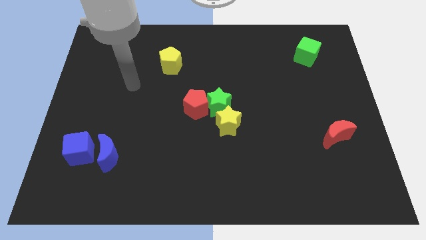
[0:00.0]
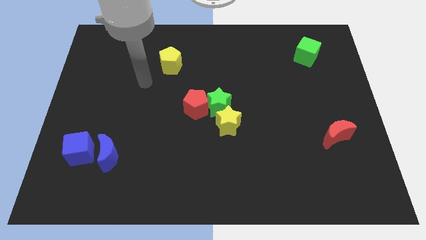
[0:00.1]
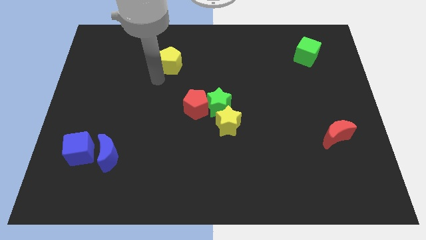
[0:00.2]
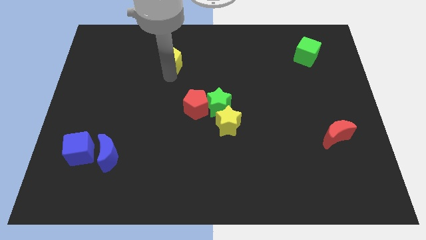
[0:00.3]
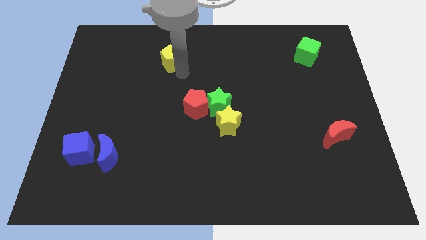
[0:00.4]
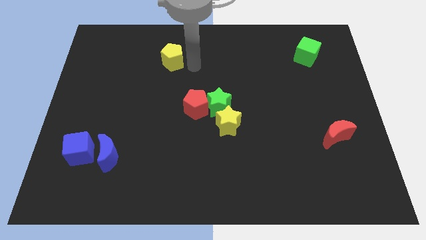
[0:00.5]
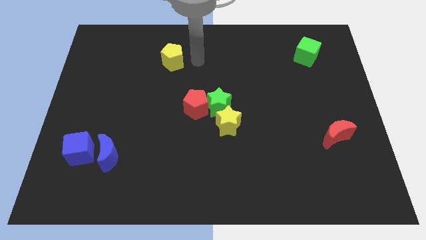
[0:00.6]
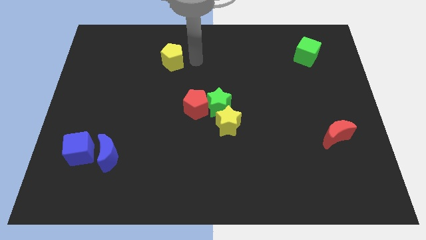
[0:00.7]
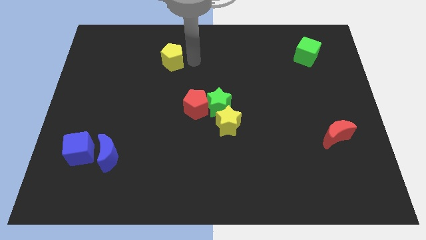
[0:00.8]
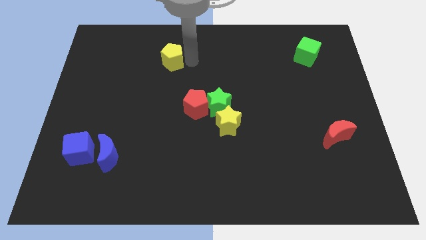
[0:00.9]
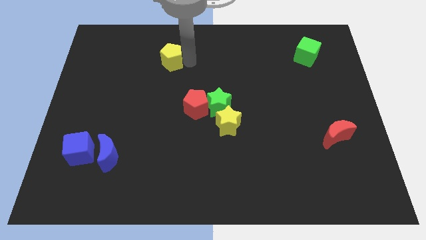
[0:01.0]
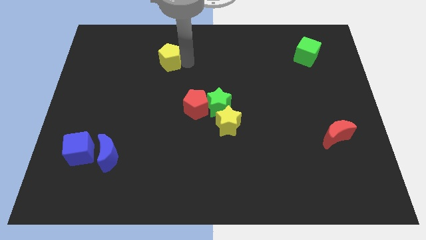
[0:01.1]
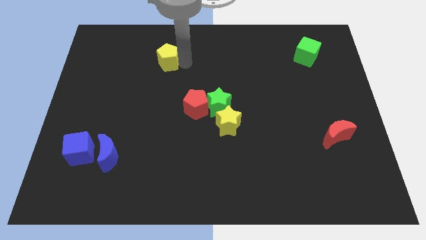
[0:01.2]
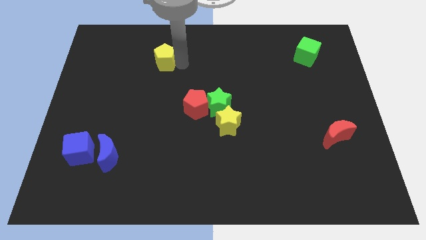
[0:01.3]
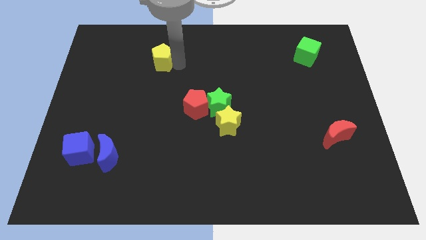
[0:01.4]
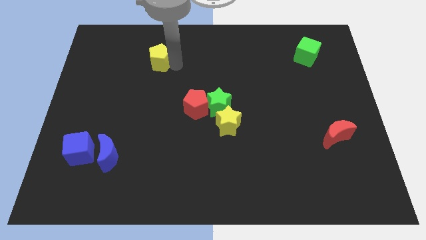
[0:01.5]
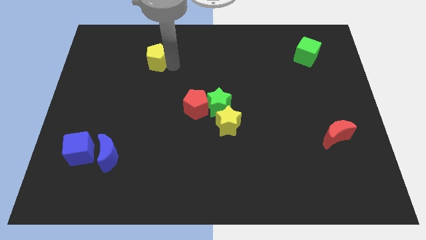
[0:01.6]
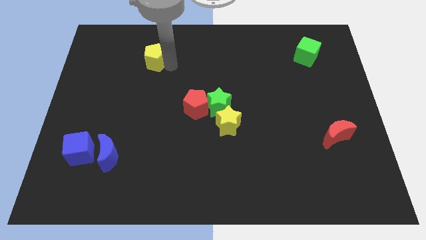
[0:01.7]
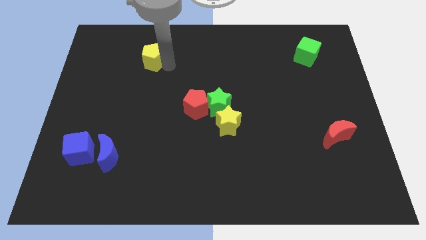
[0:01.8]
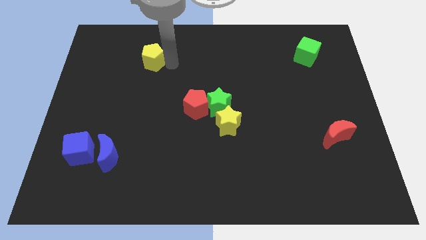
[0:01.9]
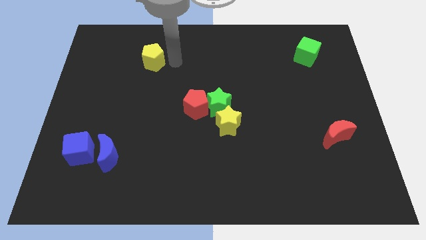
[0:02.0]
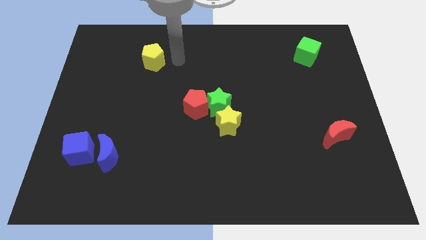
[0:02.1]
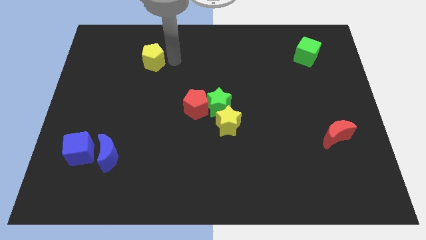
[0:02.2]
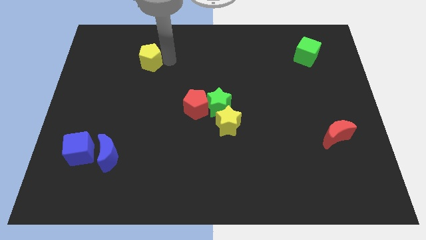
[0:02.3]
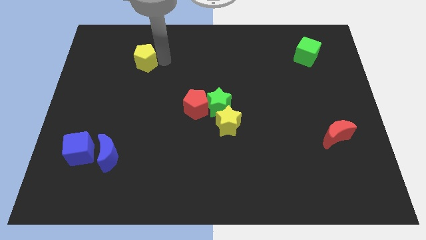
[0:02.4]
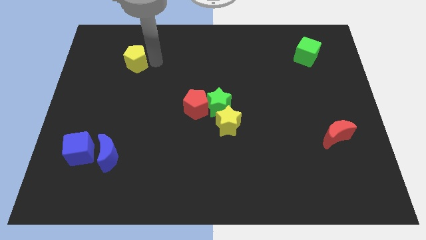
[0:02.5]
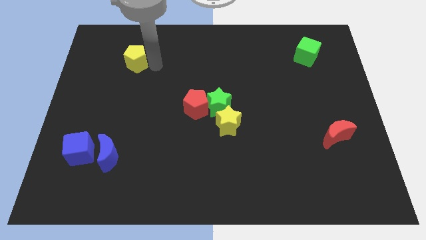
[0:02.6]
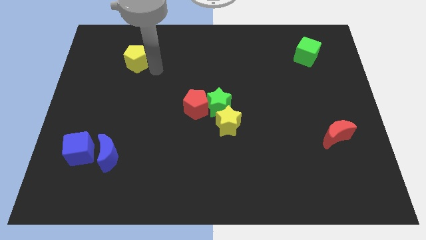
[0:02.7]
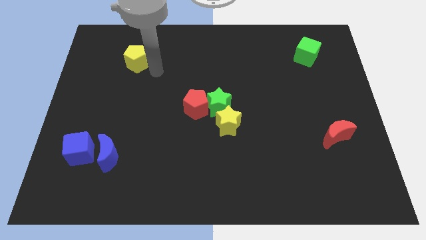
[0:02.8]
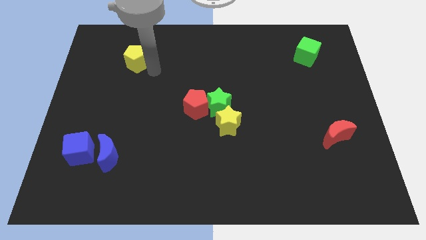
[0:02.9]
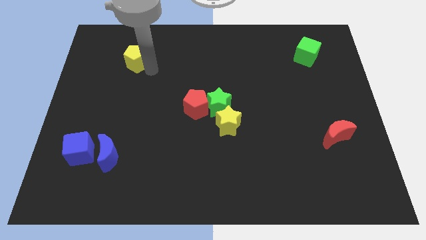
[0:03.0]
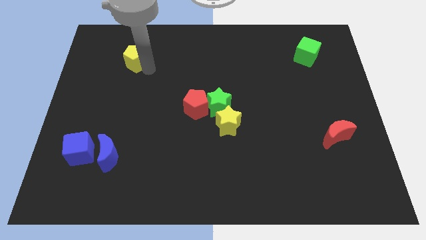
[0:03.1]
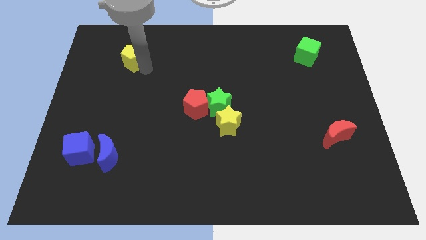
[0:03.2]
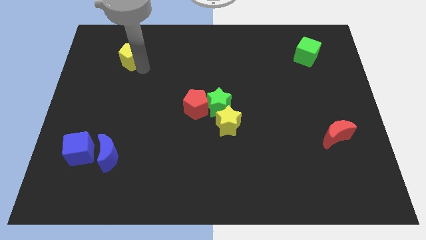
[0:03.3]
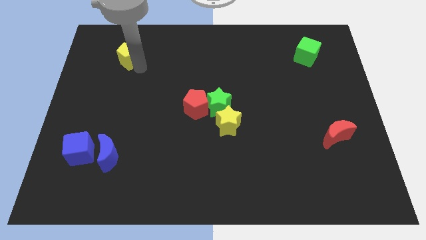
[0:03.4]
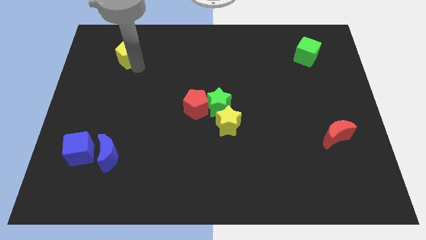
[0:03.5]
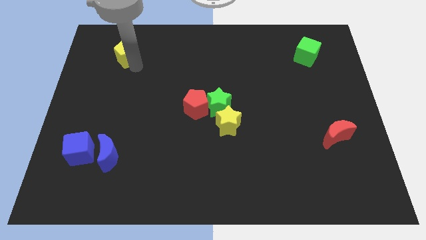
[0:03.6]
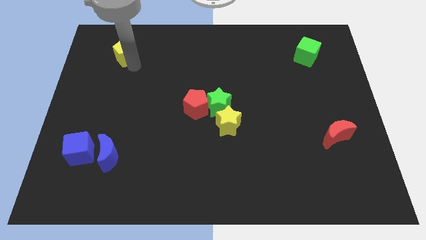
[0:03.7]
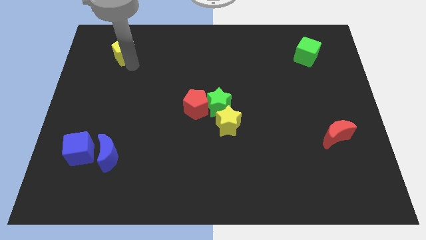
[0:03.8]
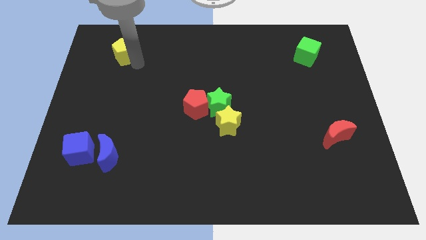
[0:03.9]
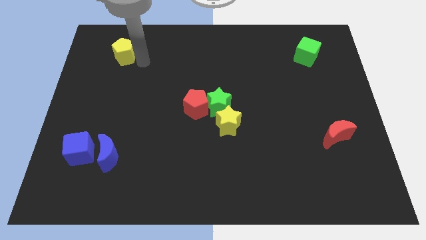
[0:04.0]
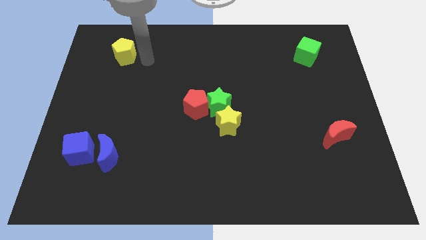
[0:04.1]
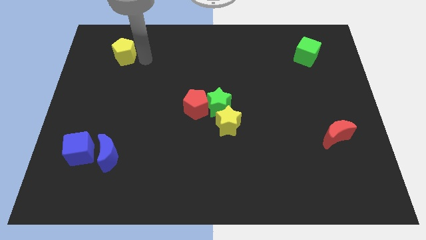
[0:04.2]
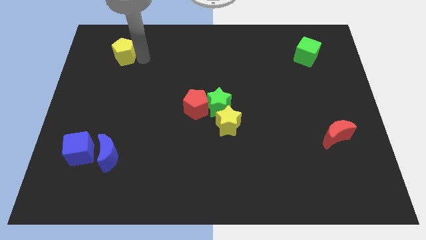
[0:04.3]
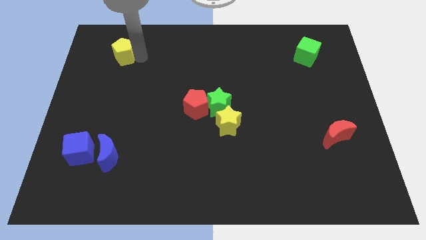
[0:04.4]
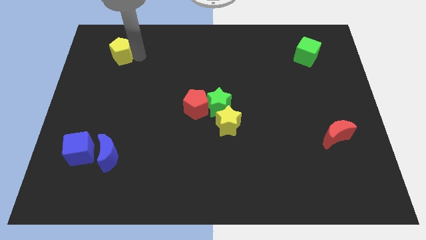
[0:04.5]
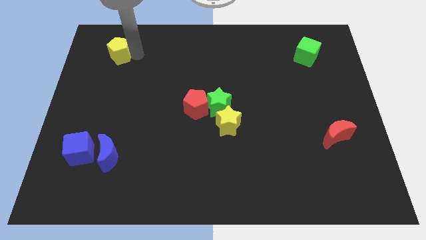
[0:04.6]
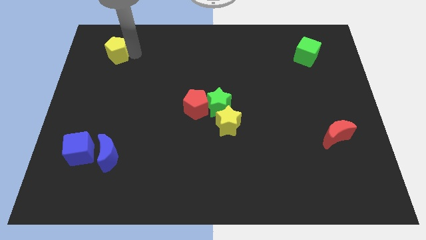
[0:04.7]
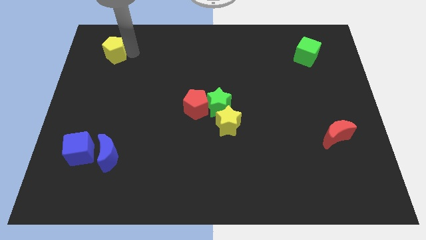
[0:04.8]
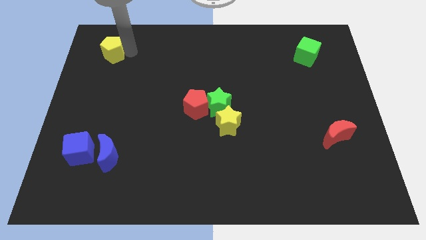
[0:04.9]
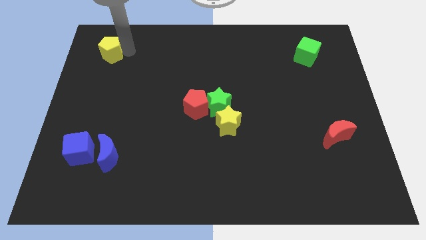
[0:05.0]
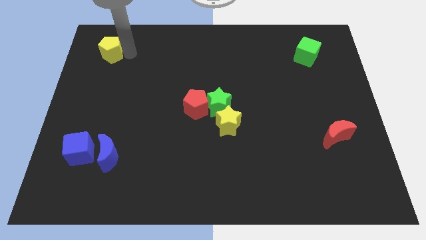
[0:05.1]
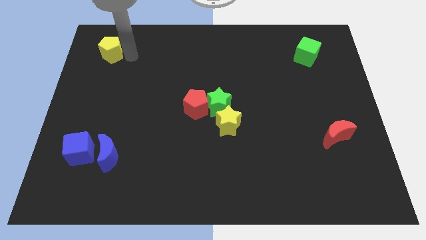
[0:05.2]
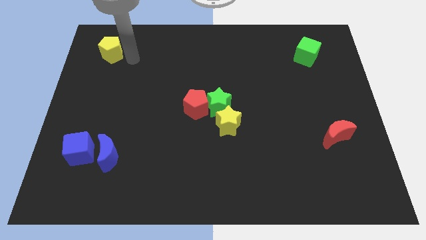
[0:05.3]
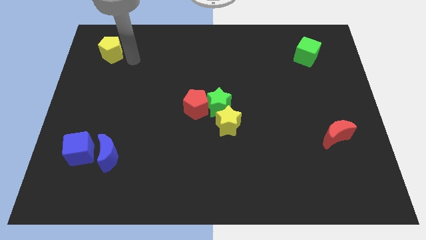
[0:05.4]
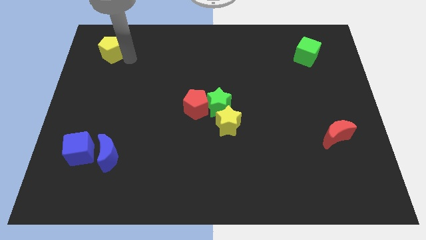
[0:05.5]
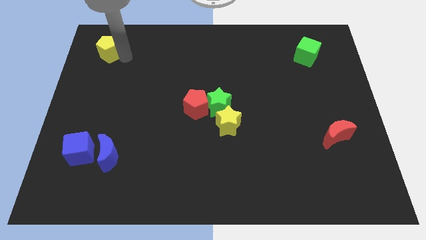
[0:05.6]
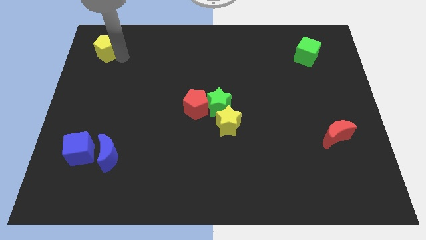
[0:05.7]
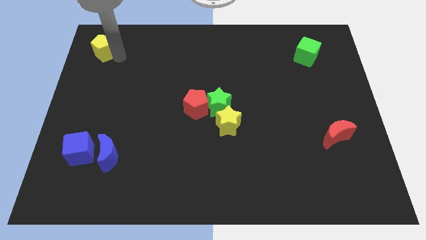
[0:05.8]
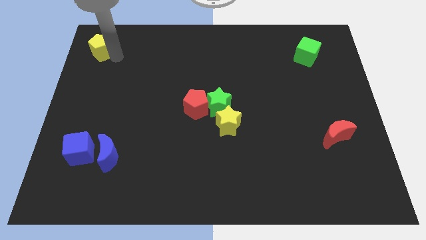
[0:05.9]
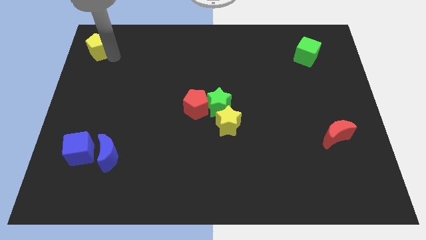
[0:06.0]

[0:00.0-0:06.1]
move the yellow pentagon to the top left
